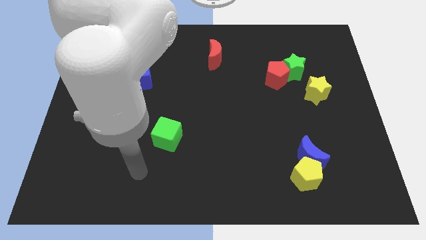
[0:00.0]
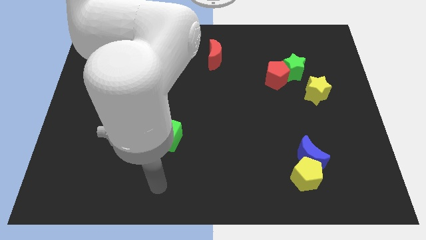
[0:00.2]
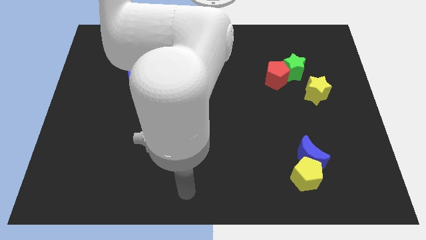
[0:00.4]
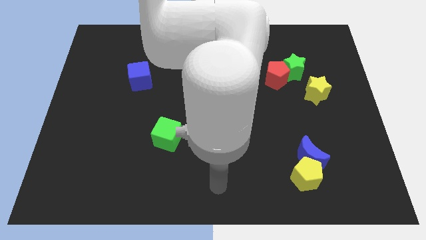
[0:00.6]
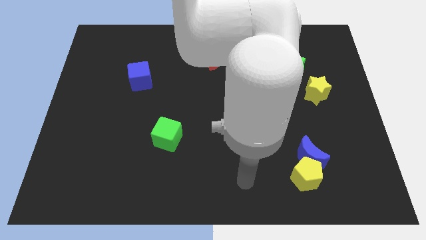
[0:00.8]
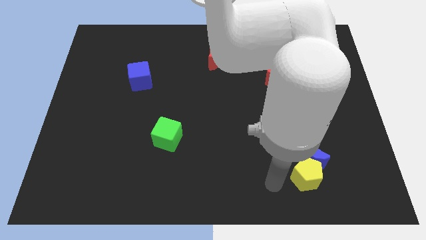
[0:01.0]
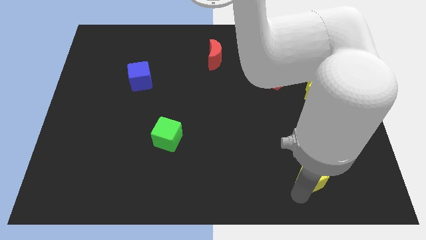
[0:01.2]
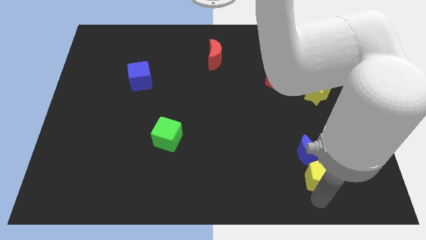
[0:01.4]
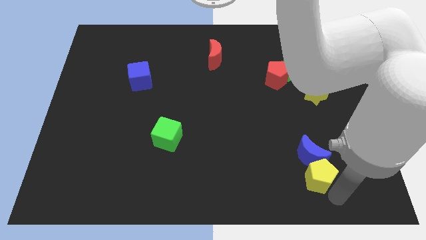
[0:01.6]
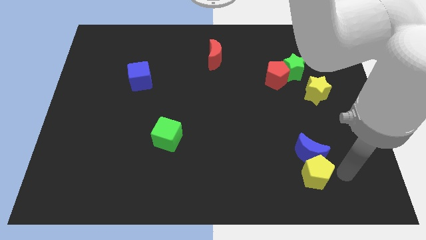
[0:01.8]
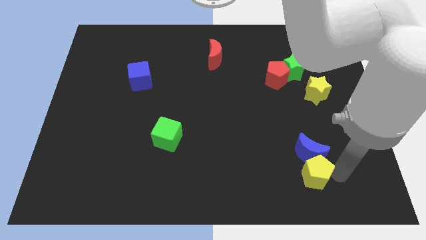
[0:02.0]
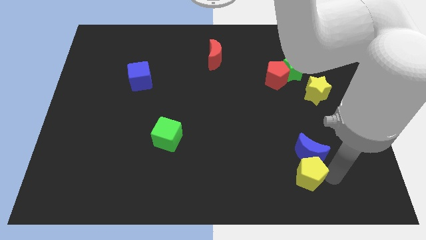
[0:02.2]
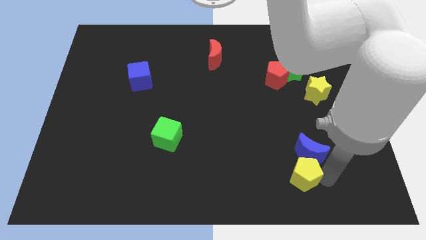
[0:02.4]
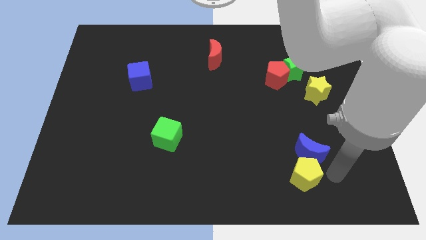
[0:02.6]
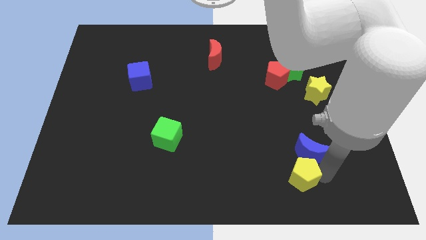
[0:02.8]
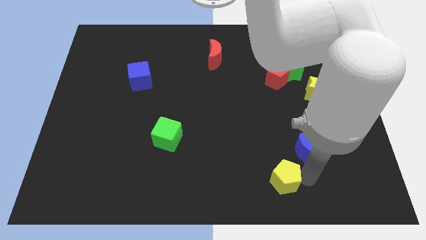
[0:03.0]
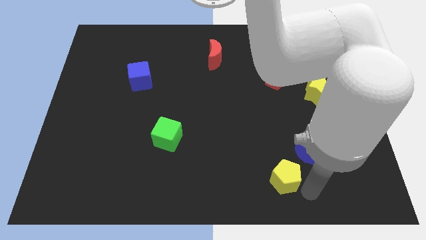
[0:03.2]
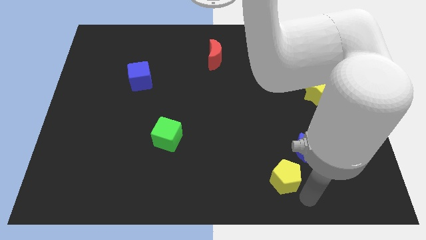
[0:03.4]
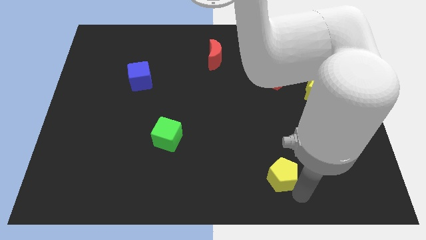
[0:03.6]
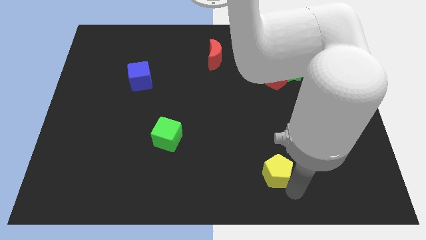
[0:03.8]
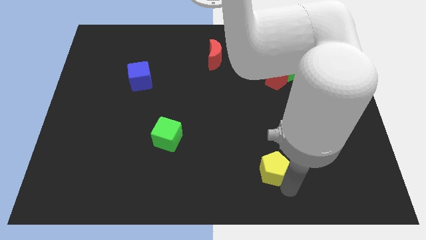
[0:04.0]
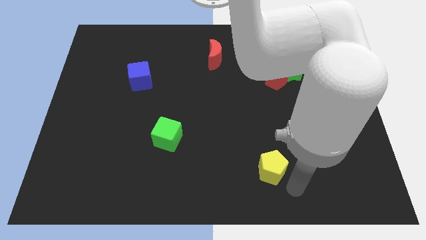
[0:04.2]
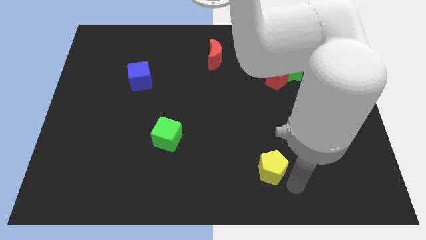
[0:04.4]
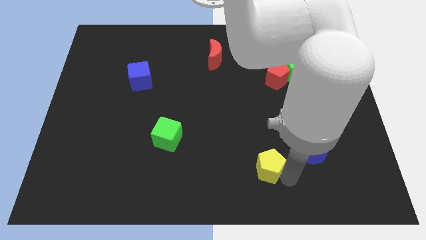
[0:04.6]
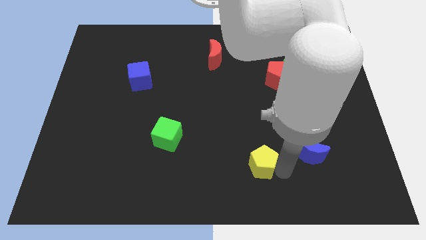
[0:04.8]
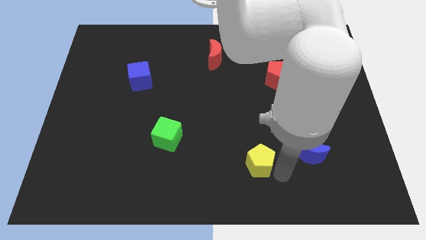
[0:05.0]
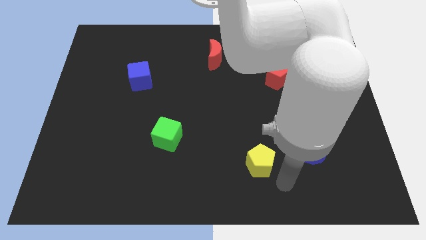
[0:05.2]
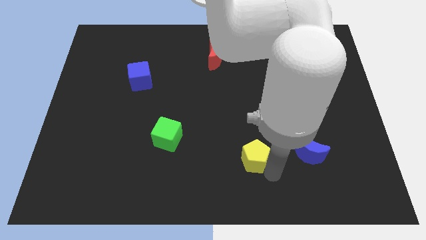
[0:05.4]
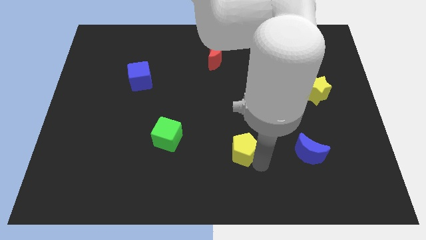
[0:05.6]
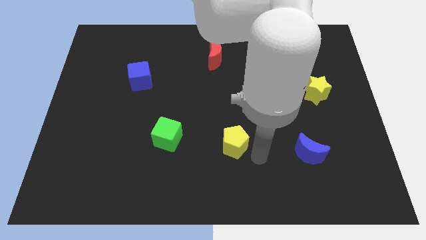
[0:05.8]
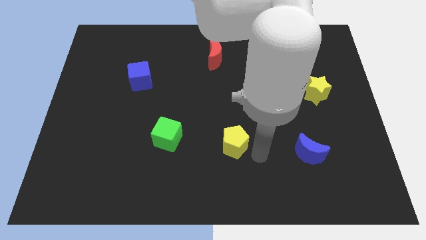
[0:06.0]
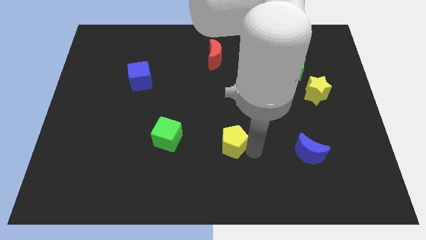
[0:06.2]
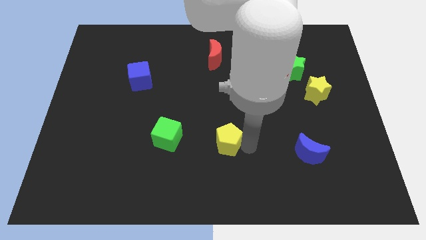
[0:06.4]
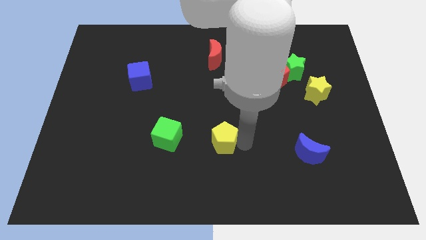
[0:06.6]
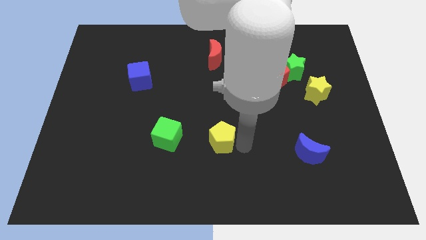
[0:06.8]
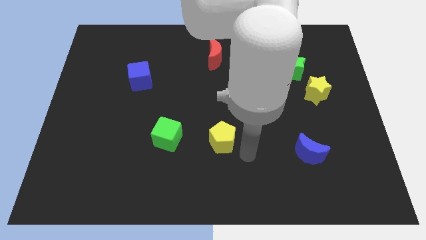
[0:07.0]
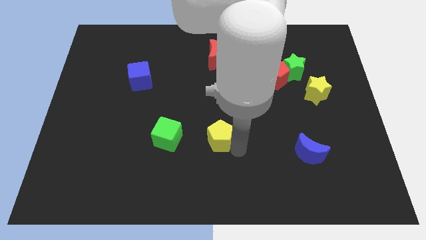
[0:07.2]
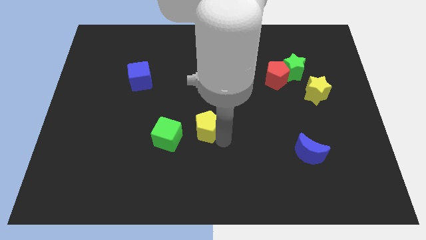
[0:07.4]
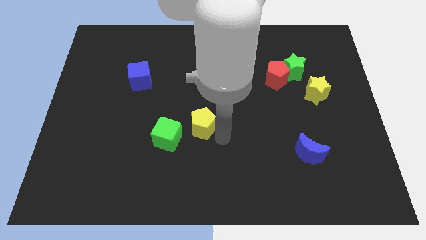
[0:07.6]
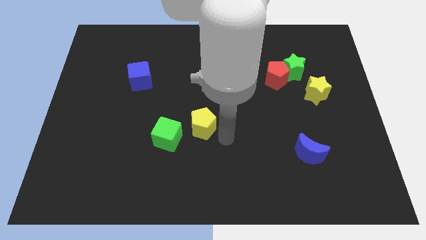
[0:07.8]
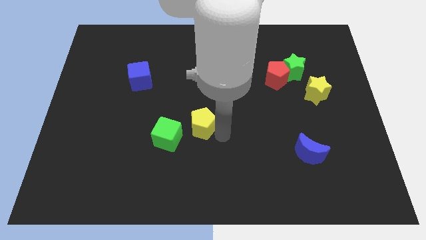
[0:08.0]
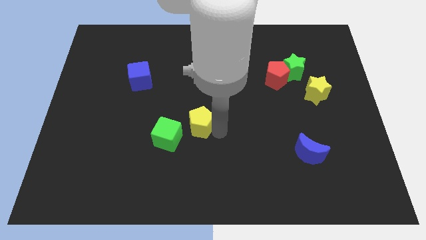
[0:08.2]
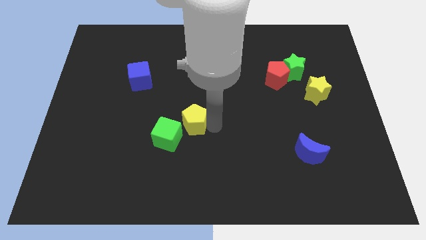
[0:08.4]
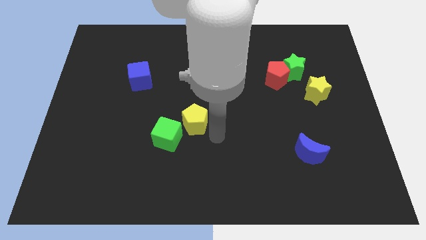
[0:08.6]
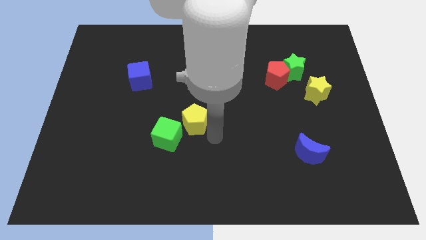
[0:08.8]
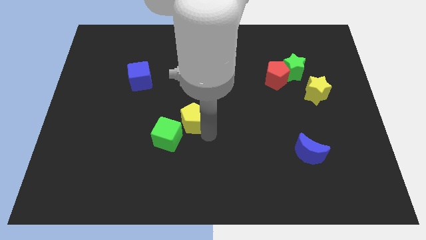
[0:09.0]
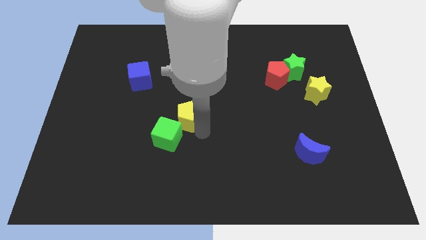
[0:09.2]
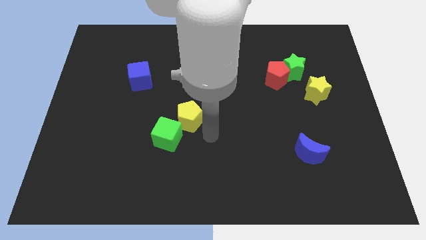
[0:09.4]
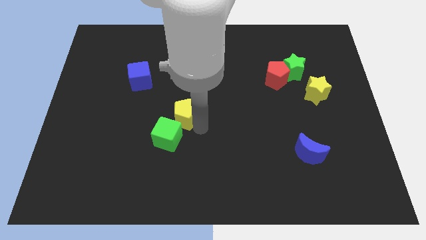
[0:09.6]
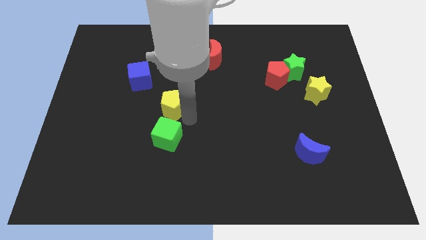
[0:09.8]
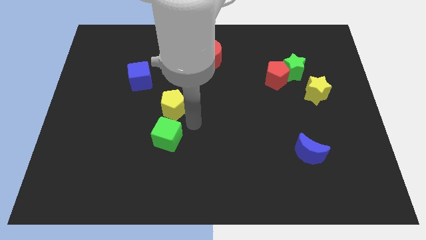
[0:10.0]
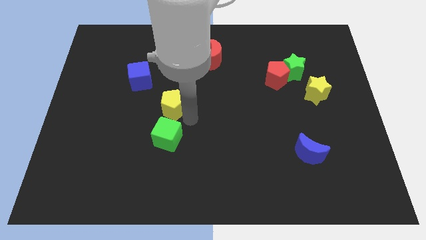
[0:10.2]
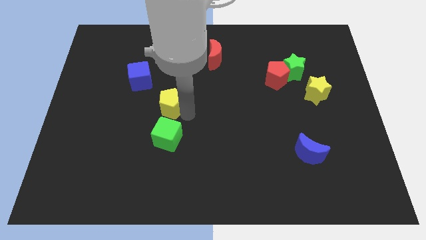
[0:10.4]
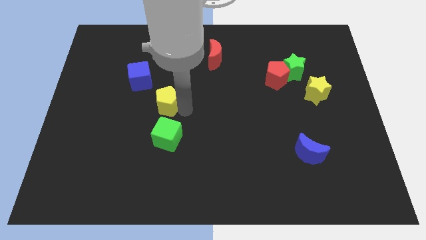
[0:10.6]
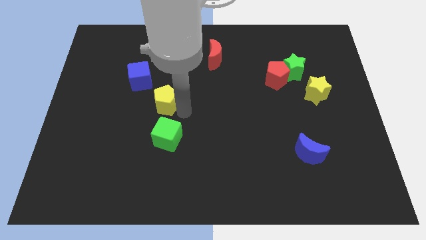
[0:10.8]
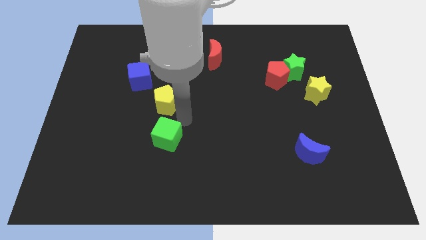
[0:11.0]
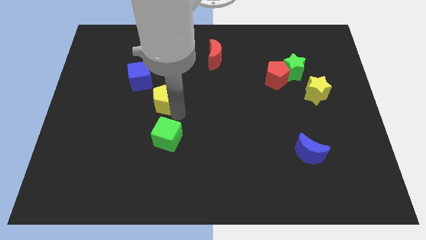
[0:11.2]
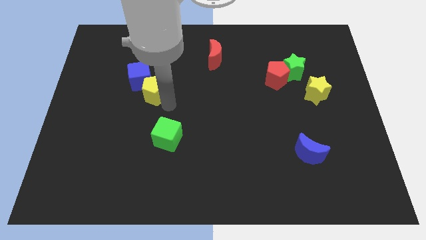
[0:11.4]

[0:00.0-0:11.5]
move the yellow pentagon to the blue cube

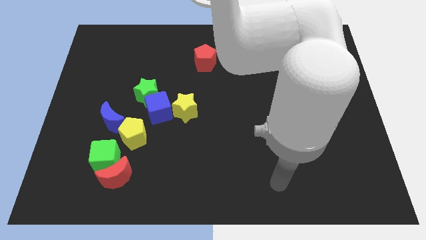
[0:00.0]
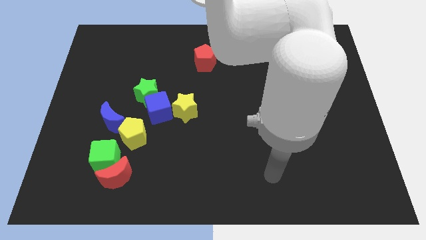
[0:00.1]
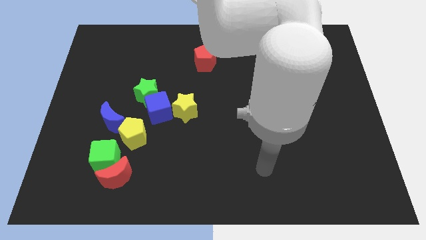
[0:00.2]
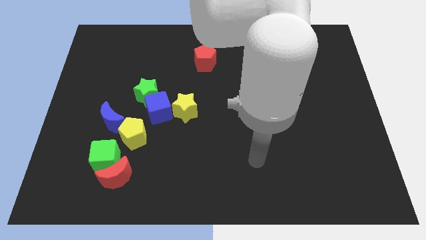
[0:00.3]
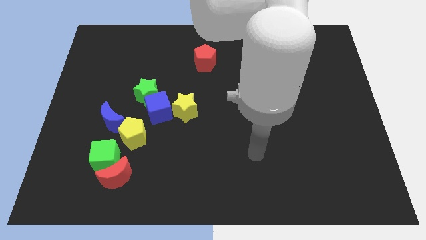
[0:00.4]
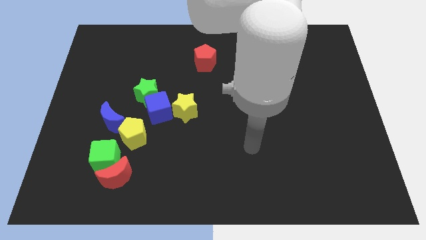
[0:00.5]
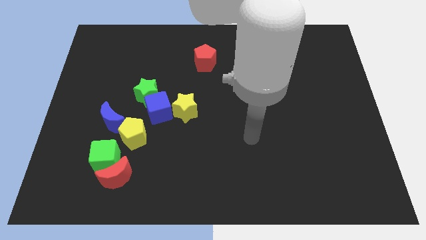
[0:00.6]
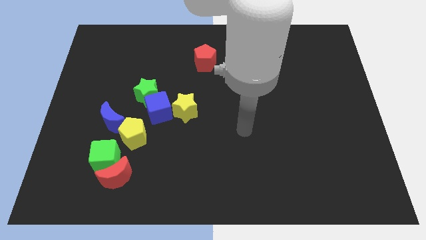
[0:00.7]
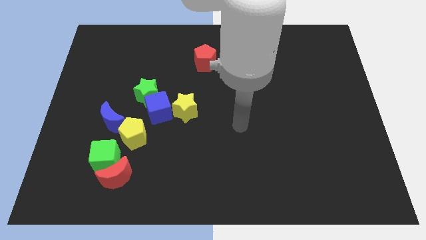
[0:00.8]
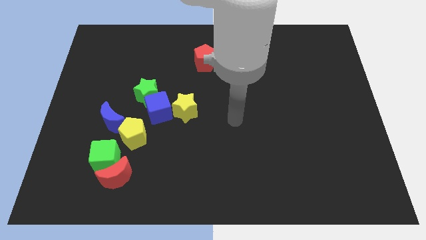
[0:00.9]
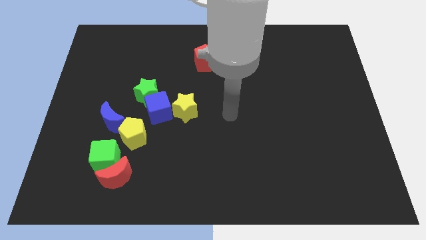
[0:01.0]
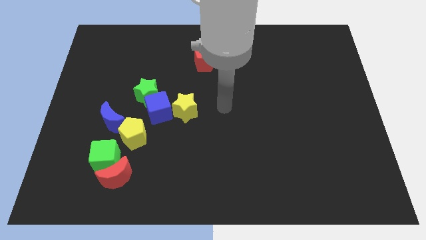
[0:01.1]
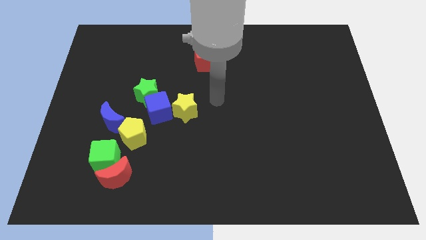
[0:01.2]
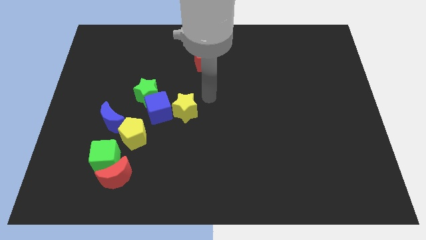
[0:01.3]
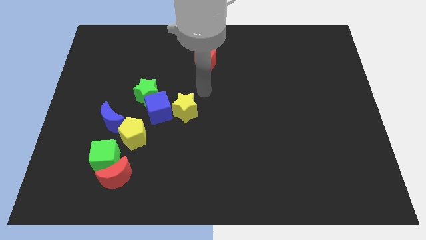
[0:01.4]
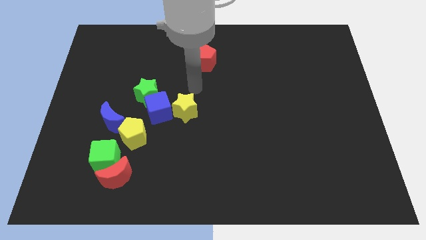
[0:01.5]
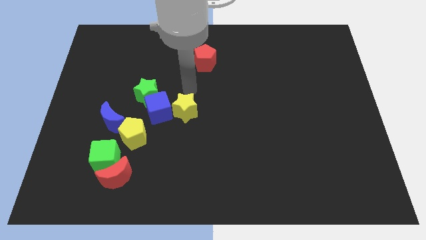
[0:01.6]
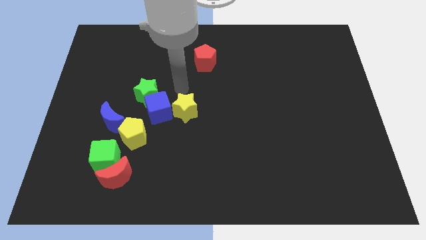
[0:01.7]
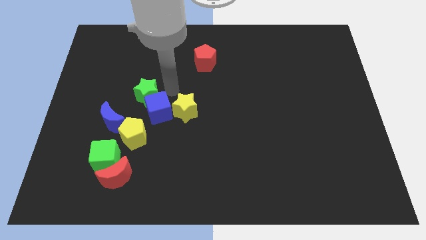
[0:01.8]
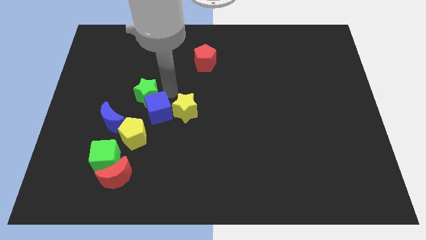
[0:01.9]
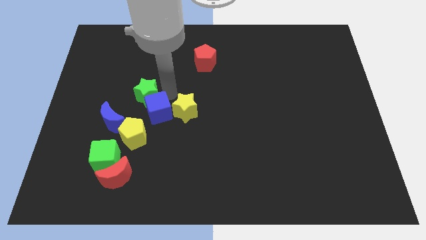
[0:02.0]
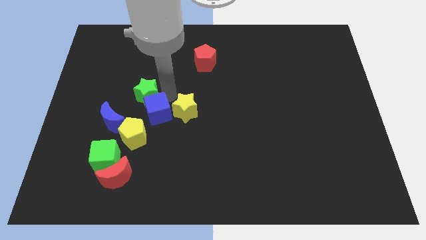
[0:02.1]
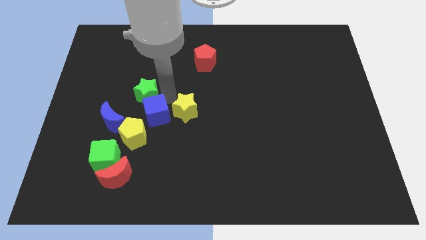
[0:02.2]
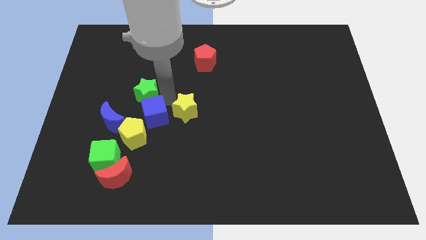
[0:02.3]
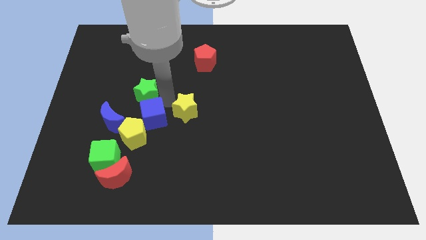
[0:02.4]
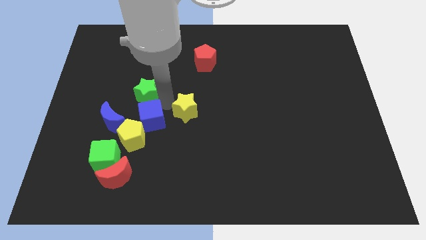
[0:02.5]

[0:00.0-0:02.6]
push the blue cube towards the yellow pentagon
